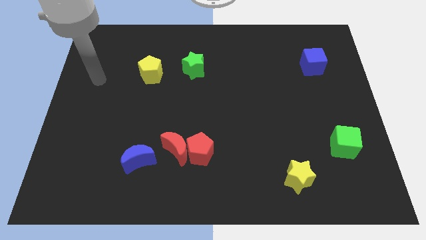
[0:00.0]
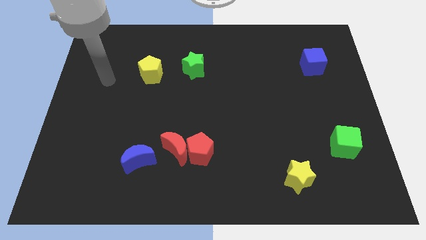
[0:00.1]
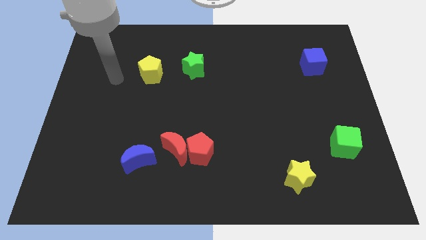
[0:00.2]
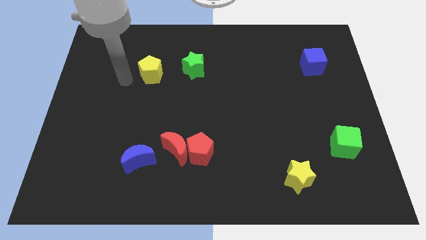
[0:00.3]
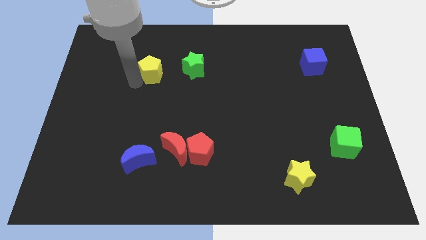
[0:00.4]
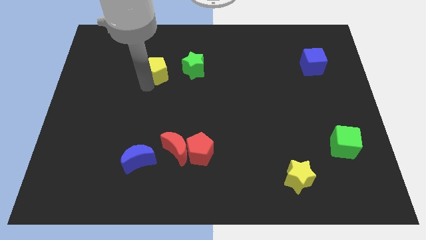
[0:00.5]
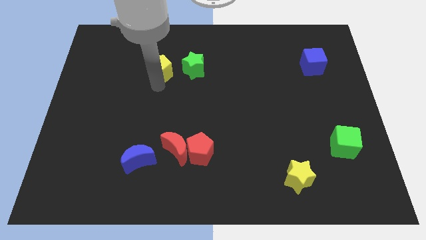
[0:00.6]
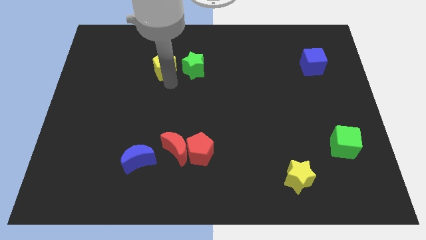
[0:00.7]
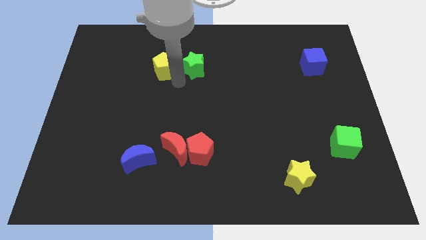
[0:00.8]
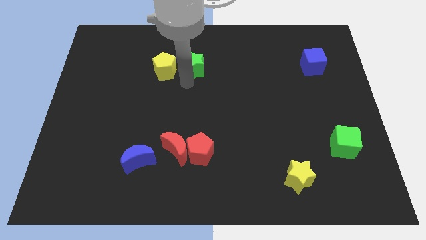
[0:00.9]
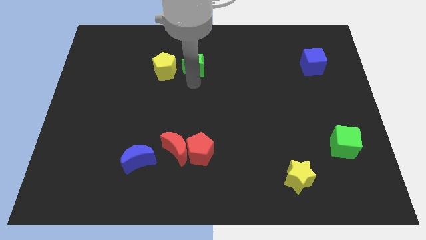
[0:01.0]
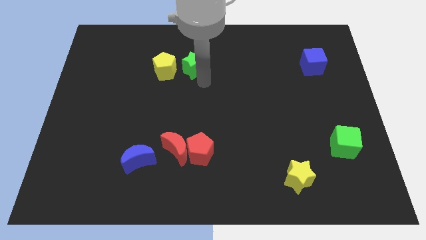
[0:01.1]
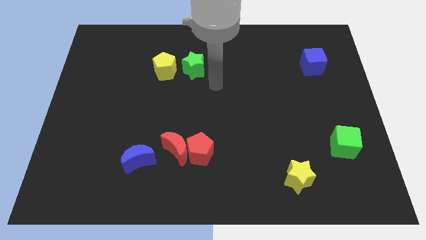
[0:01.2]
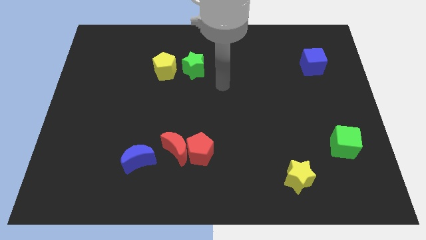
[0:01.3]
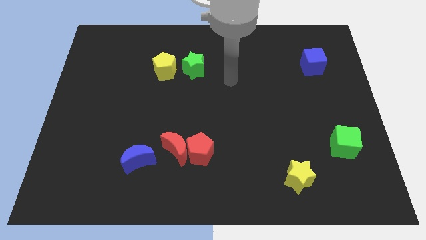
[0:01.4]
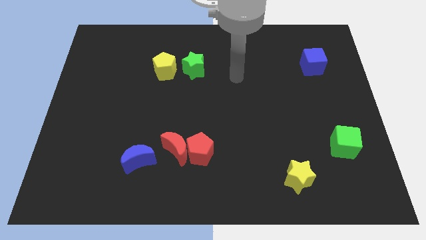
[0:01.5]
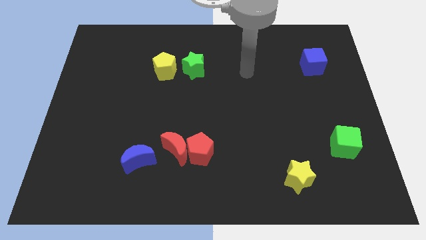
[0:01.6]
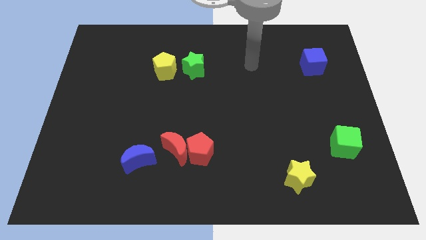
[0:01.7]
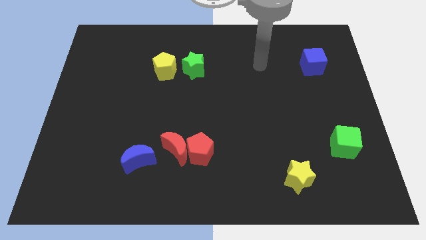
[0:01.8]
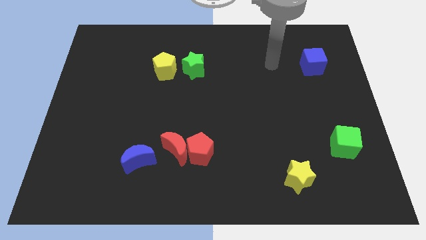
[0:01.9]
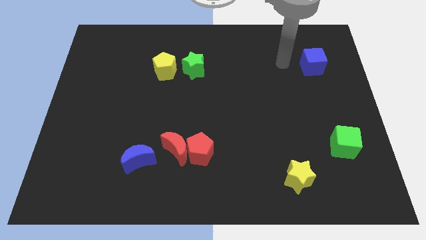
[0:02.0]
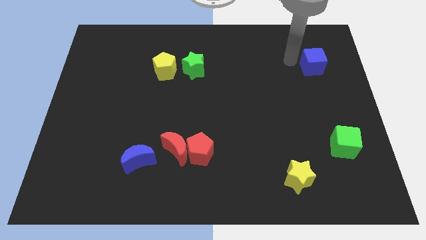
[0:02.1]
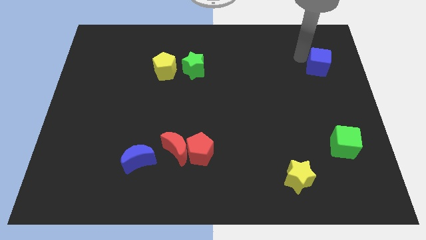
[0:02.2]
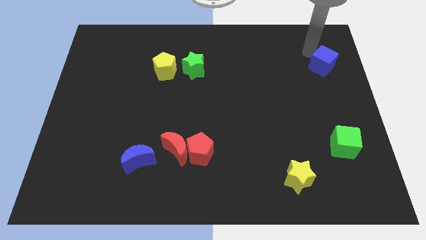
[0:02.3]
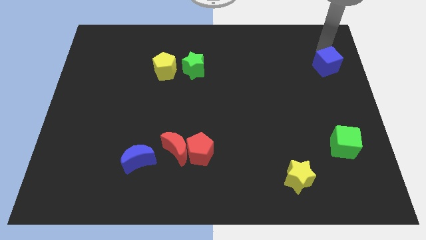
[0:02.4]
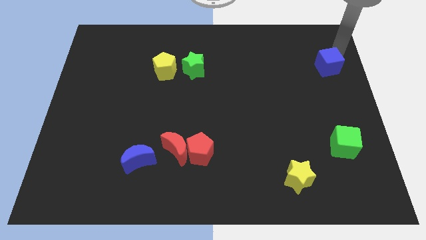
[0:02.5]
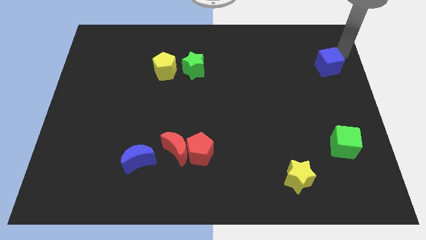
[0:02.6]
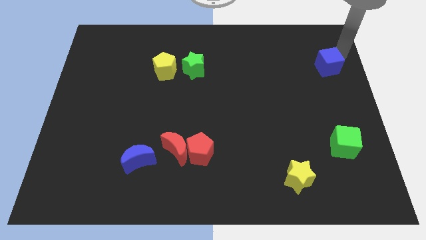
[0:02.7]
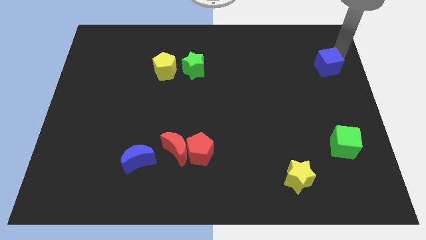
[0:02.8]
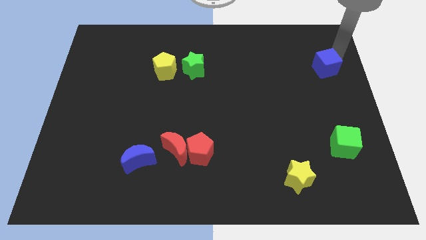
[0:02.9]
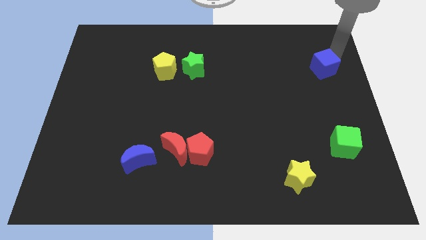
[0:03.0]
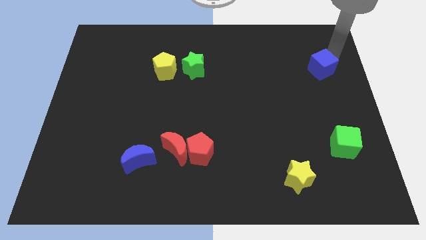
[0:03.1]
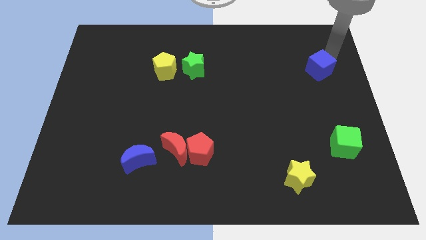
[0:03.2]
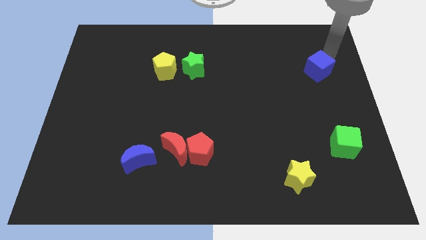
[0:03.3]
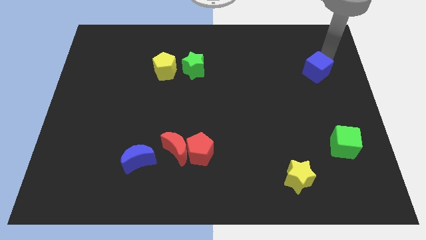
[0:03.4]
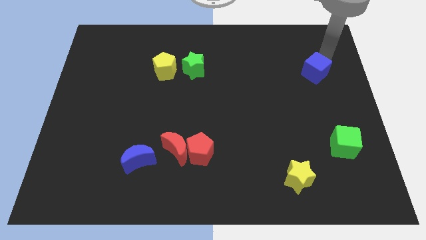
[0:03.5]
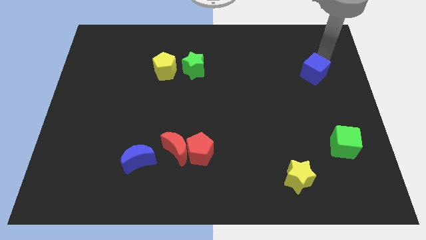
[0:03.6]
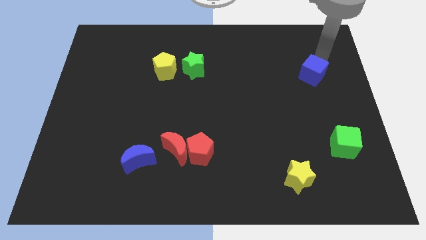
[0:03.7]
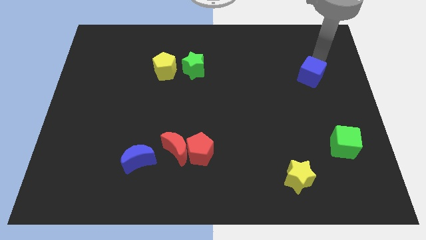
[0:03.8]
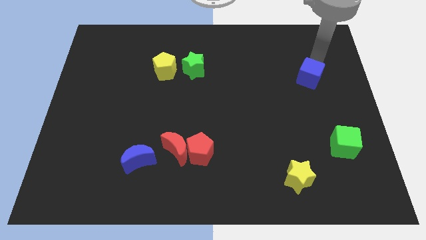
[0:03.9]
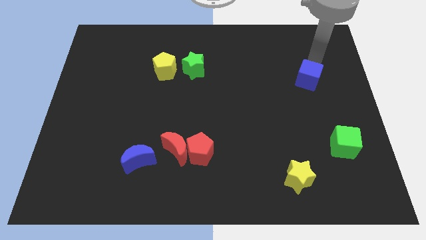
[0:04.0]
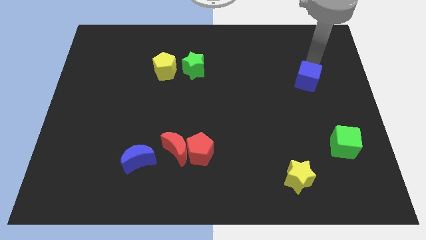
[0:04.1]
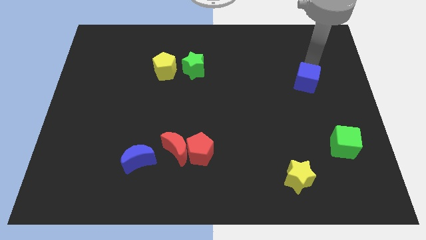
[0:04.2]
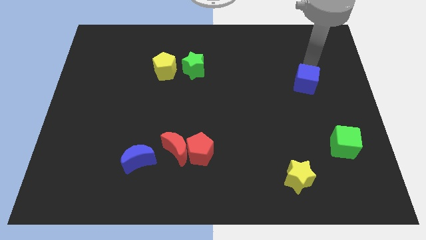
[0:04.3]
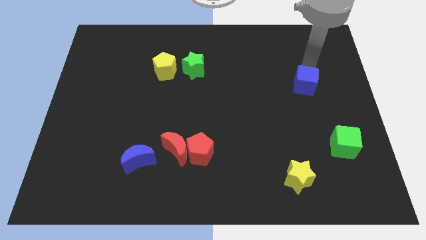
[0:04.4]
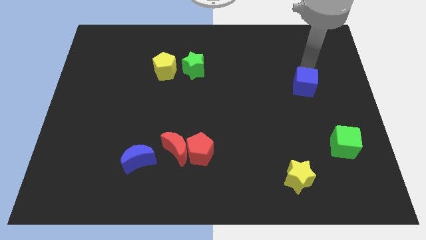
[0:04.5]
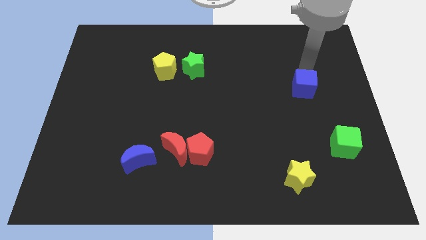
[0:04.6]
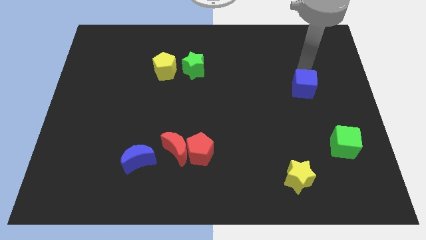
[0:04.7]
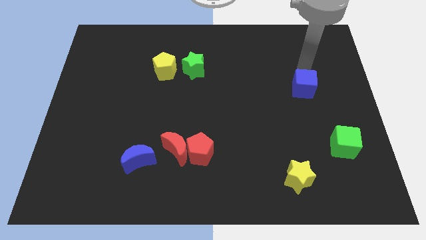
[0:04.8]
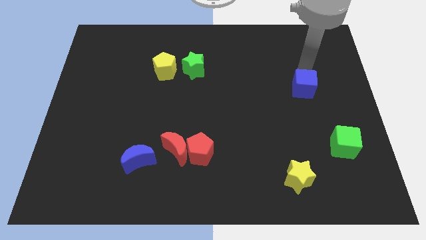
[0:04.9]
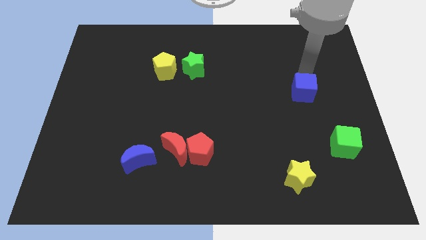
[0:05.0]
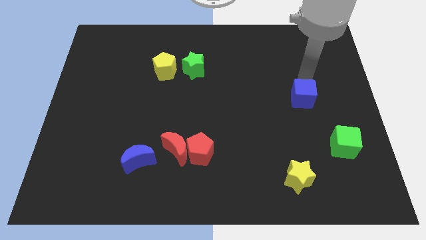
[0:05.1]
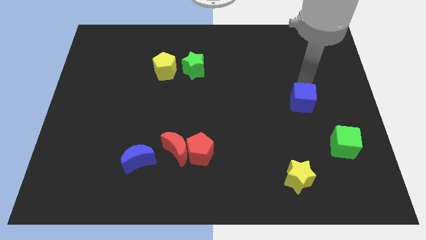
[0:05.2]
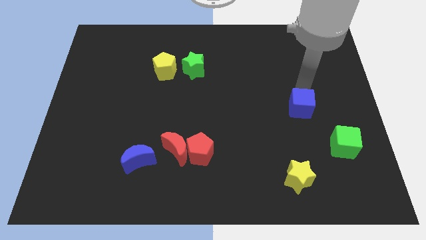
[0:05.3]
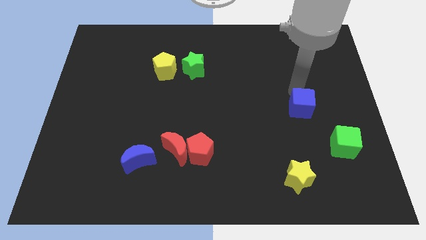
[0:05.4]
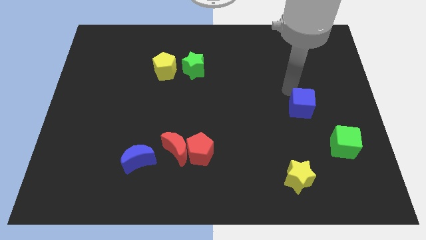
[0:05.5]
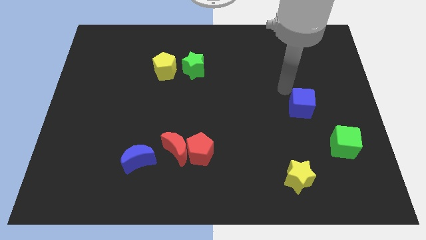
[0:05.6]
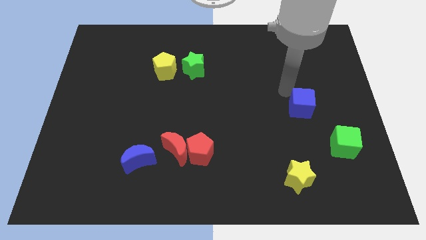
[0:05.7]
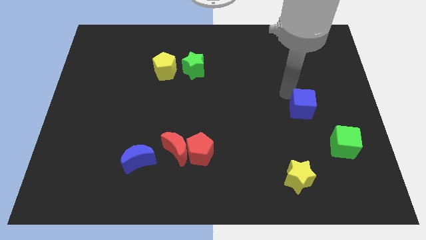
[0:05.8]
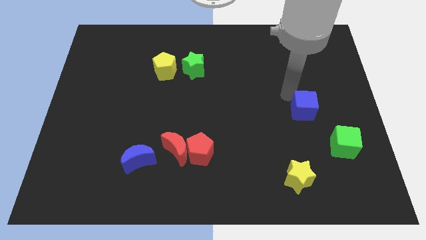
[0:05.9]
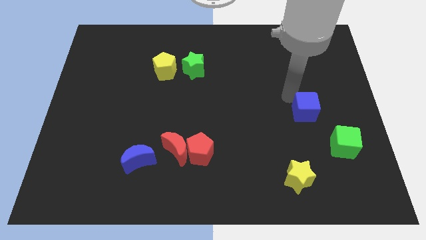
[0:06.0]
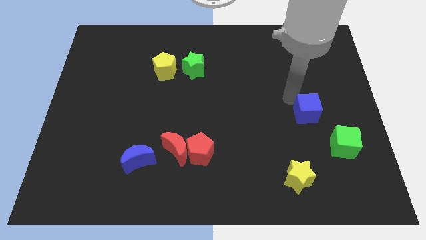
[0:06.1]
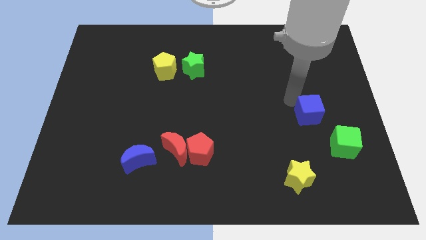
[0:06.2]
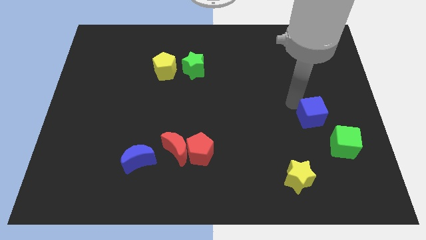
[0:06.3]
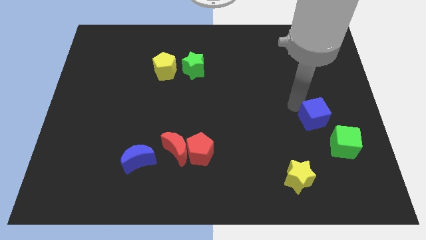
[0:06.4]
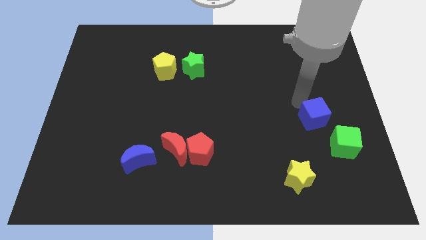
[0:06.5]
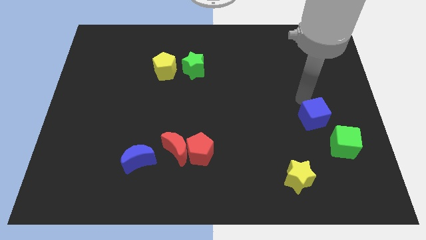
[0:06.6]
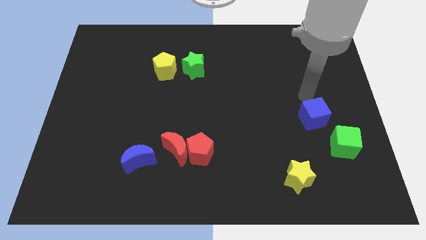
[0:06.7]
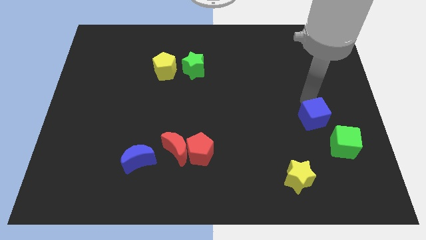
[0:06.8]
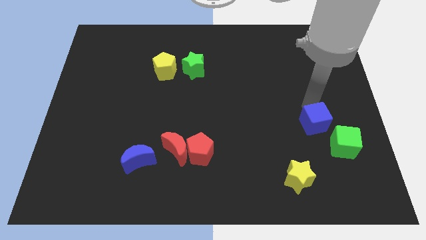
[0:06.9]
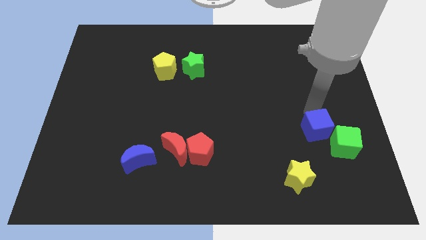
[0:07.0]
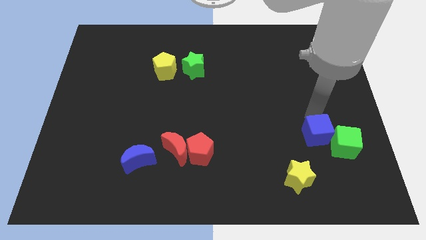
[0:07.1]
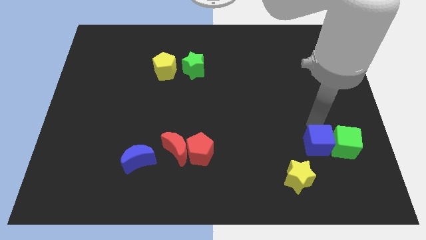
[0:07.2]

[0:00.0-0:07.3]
push the blue cube diagonally down and to the left of the green cube

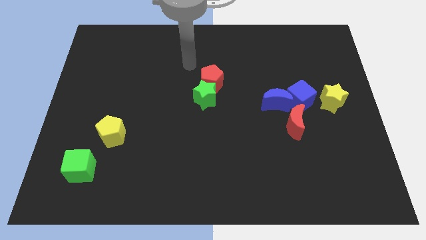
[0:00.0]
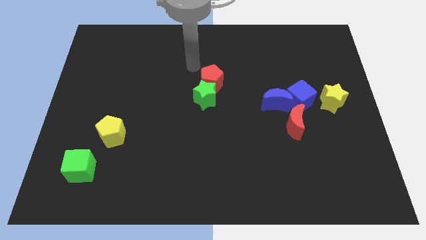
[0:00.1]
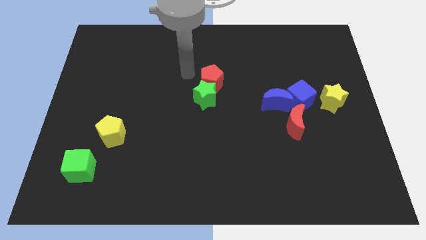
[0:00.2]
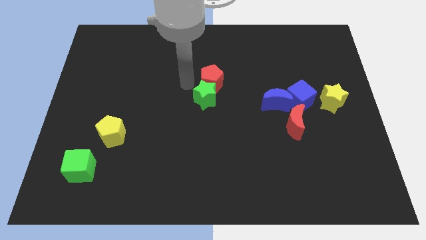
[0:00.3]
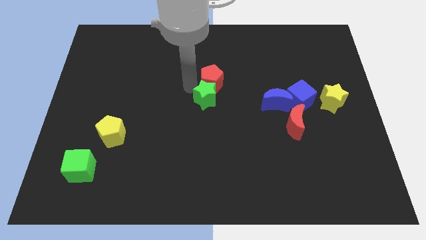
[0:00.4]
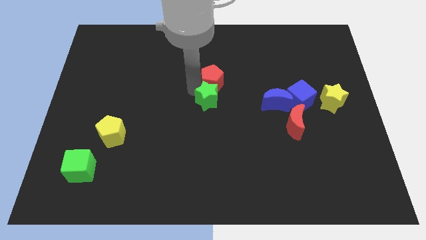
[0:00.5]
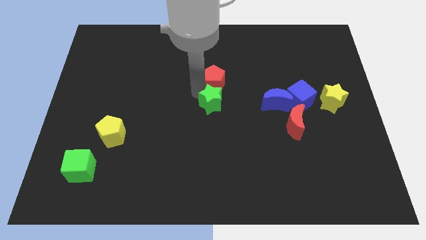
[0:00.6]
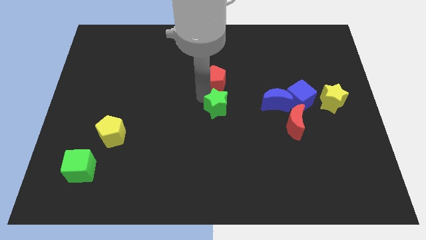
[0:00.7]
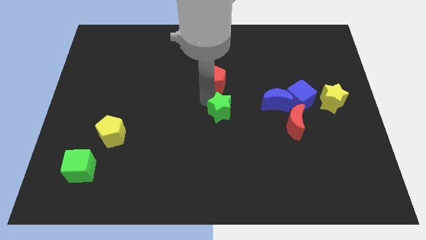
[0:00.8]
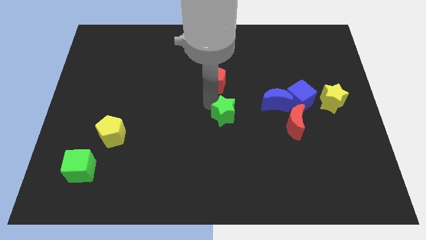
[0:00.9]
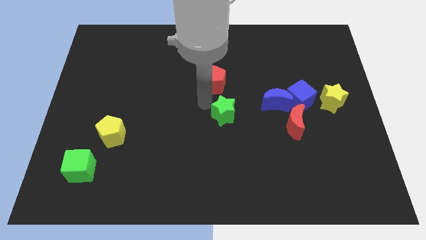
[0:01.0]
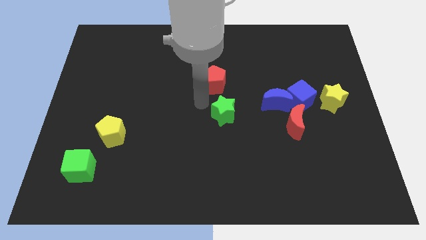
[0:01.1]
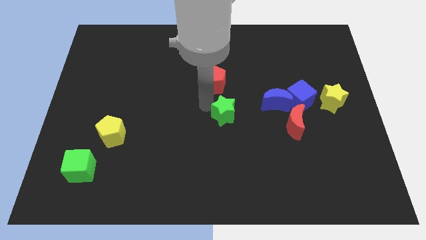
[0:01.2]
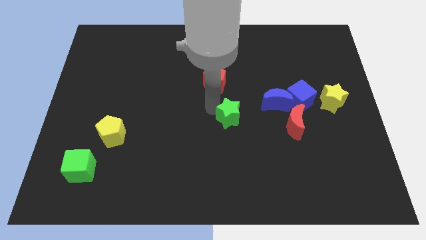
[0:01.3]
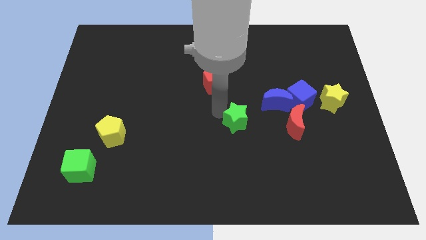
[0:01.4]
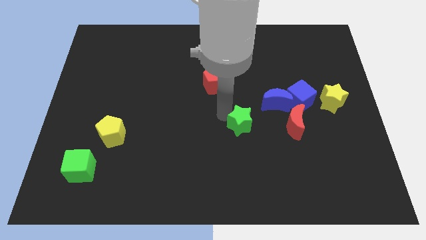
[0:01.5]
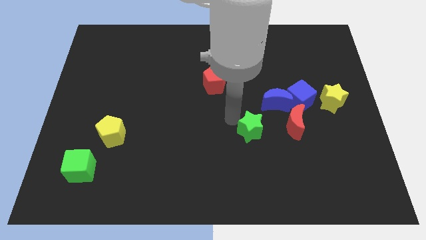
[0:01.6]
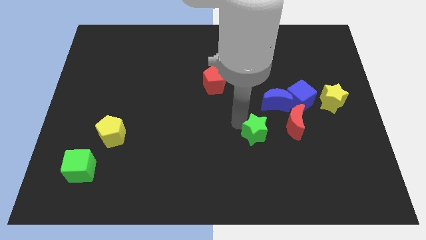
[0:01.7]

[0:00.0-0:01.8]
put the green star diagonally down and to the left of the red moon
